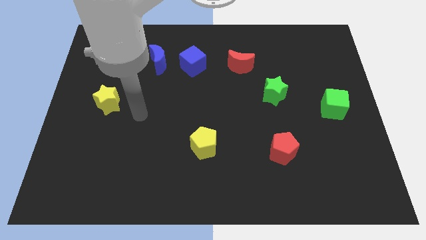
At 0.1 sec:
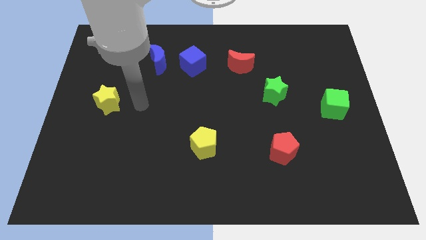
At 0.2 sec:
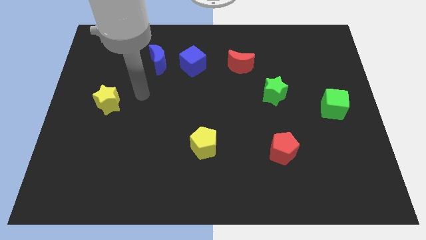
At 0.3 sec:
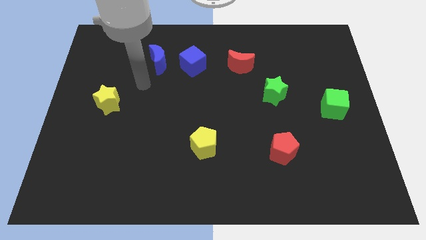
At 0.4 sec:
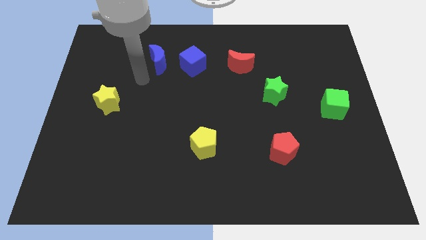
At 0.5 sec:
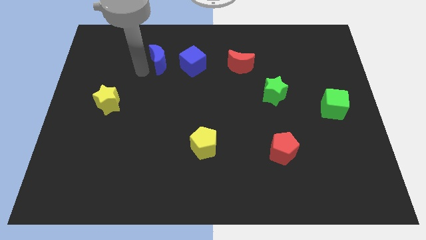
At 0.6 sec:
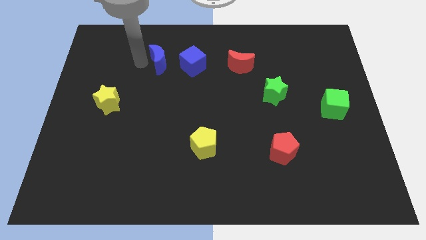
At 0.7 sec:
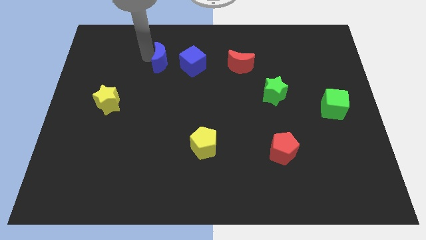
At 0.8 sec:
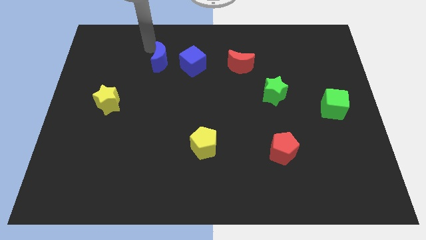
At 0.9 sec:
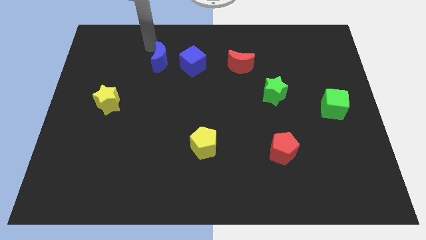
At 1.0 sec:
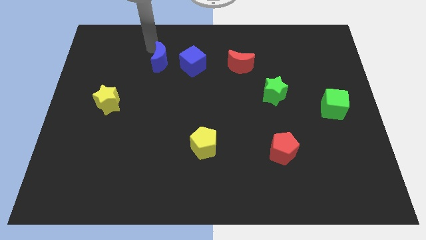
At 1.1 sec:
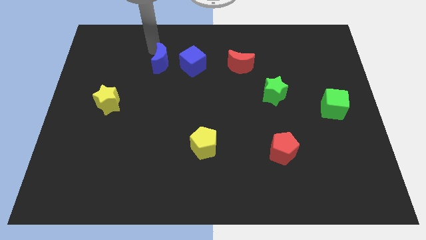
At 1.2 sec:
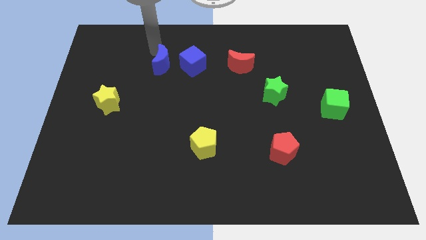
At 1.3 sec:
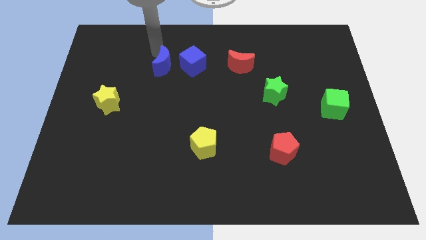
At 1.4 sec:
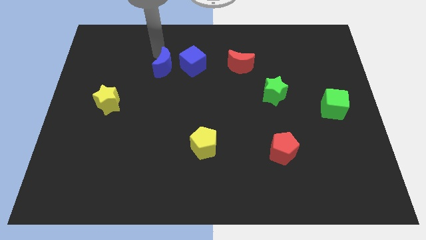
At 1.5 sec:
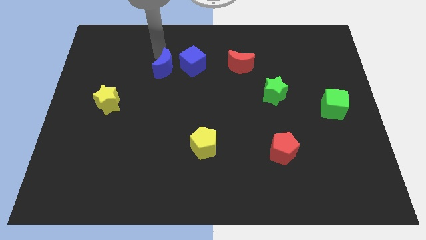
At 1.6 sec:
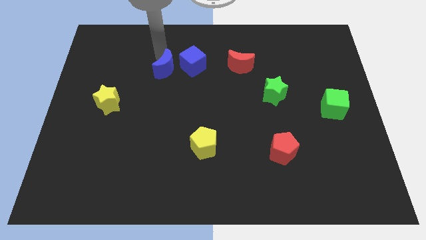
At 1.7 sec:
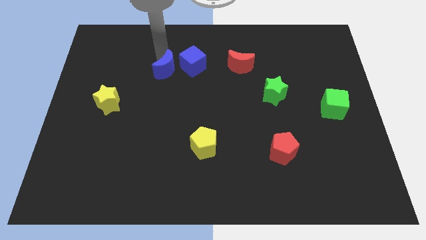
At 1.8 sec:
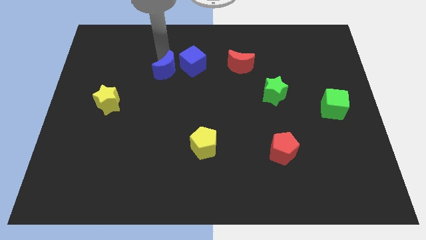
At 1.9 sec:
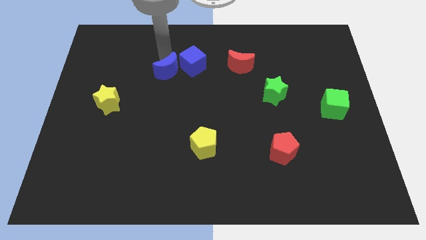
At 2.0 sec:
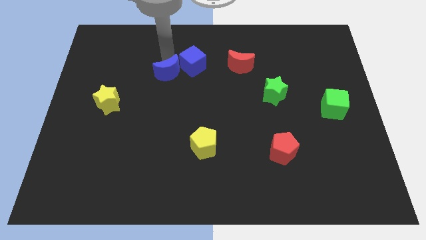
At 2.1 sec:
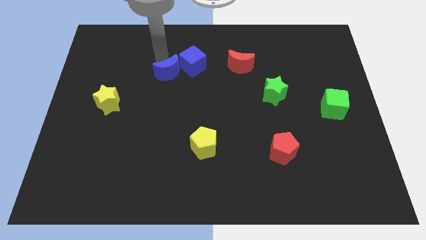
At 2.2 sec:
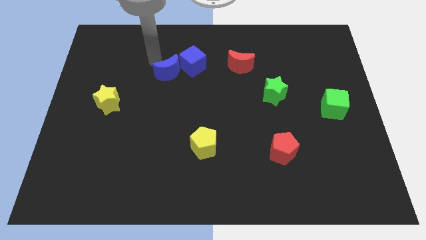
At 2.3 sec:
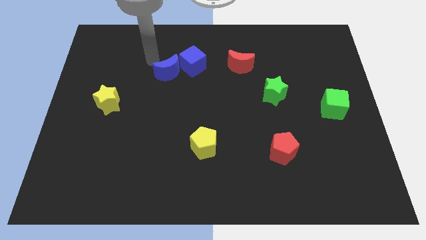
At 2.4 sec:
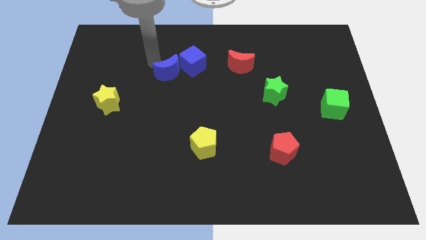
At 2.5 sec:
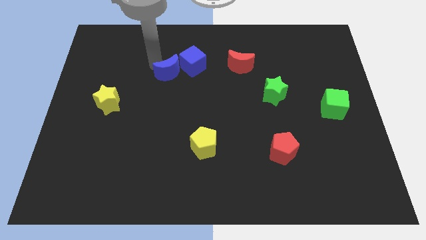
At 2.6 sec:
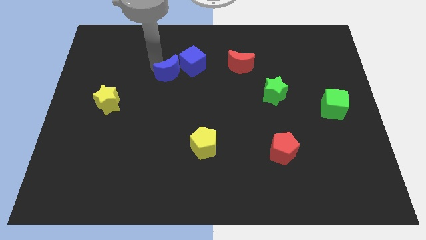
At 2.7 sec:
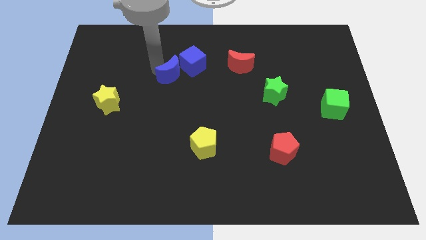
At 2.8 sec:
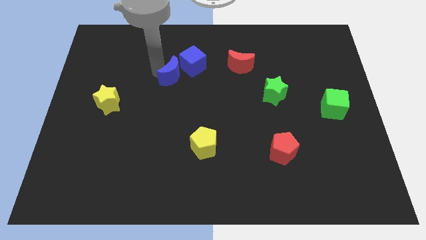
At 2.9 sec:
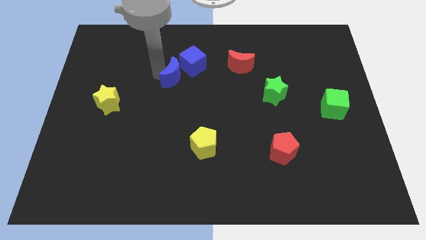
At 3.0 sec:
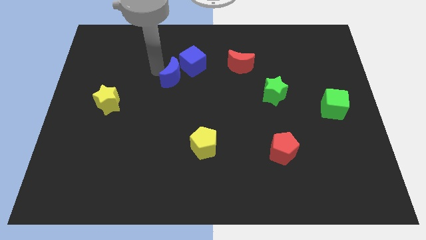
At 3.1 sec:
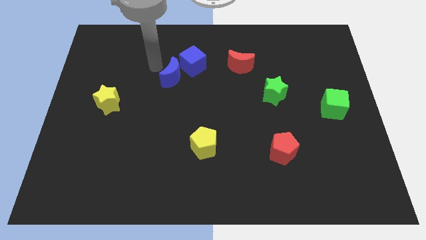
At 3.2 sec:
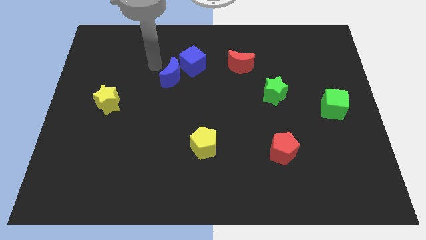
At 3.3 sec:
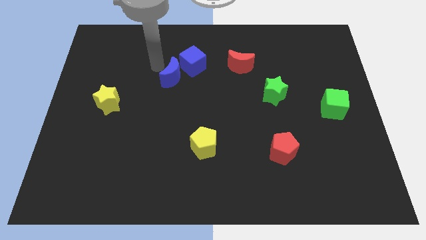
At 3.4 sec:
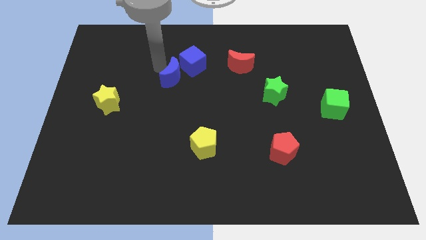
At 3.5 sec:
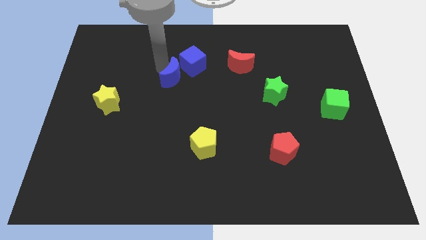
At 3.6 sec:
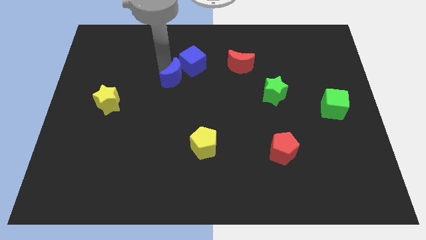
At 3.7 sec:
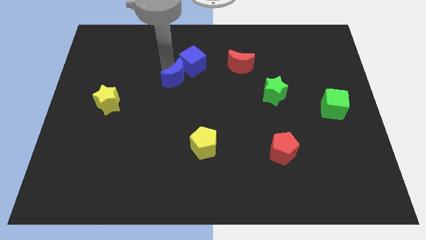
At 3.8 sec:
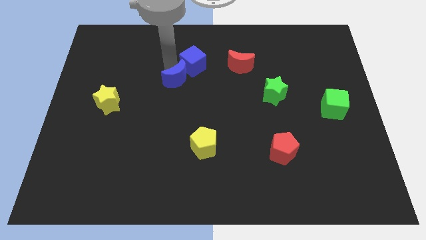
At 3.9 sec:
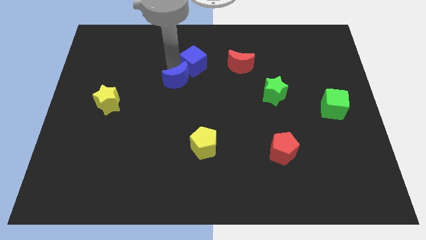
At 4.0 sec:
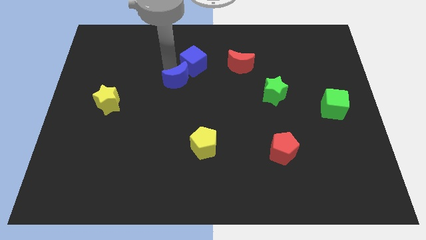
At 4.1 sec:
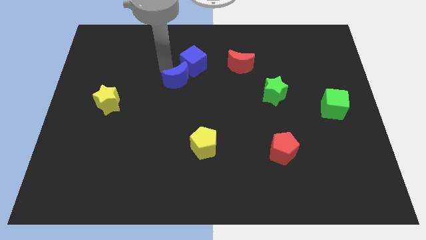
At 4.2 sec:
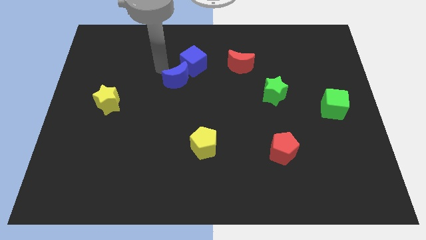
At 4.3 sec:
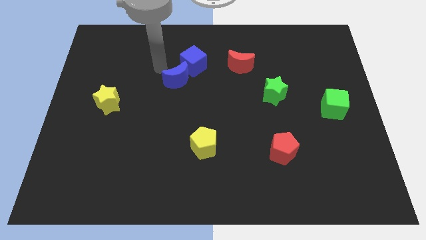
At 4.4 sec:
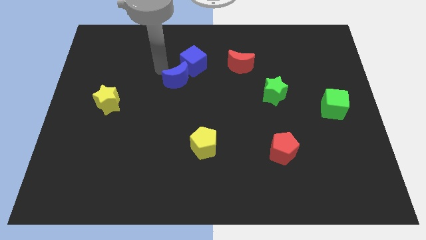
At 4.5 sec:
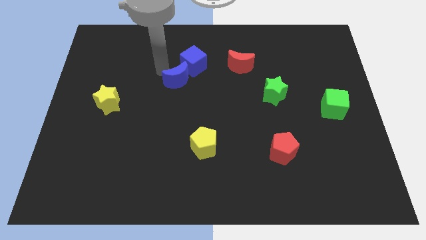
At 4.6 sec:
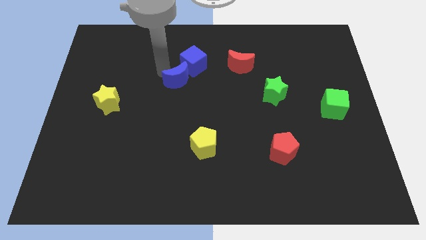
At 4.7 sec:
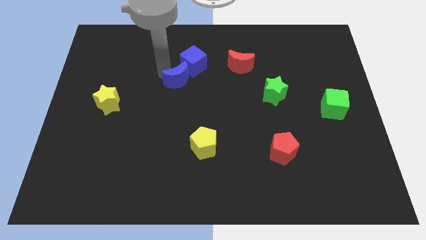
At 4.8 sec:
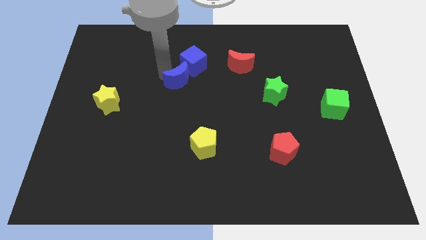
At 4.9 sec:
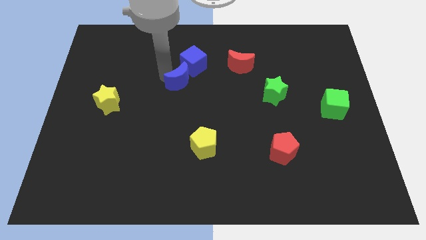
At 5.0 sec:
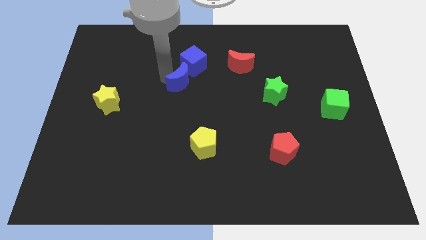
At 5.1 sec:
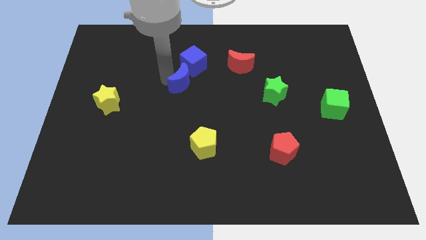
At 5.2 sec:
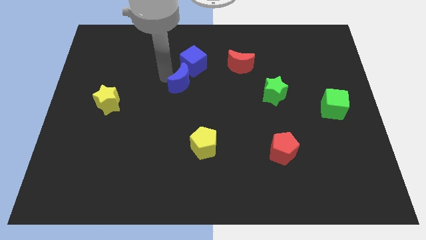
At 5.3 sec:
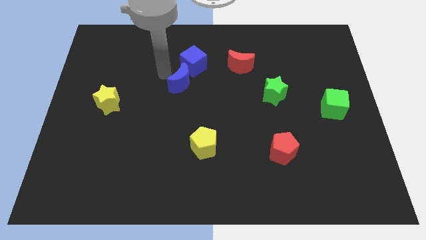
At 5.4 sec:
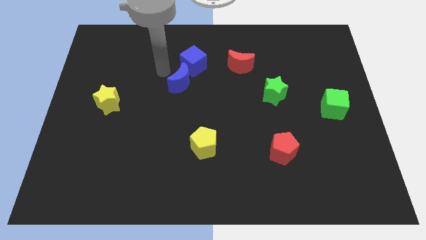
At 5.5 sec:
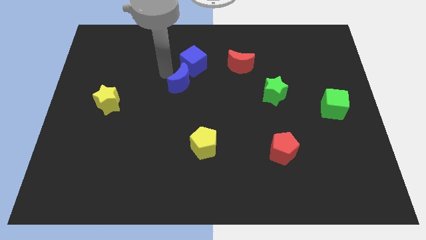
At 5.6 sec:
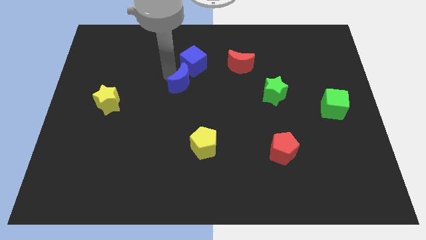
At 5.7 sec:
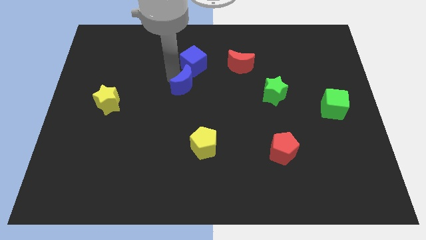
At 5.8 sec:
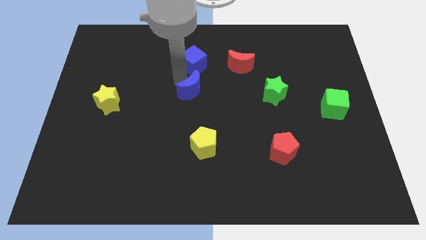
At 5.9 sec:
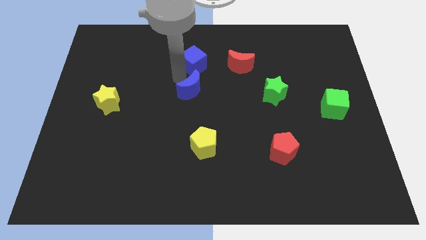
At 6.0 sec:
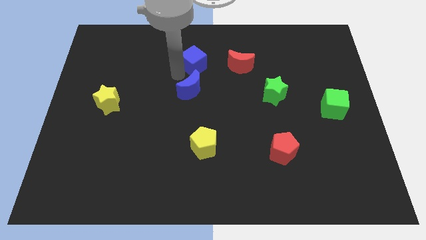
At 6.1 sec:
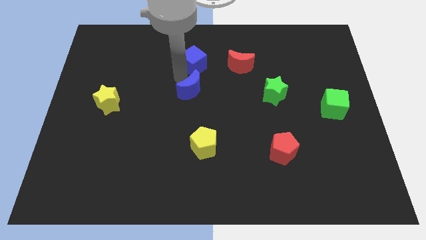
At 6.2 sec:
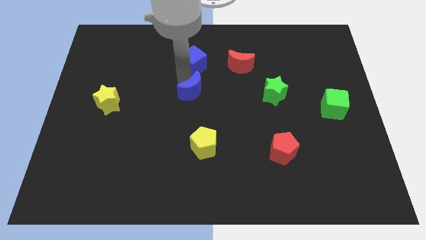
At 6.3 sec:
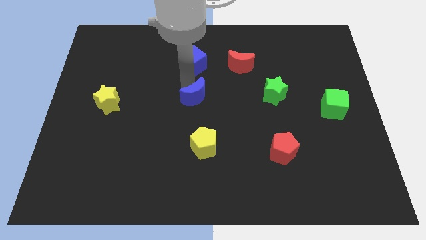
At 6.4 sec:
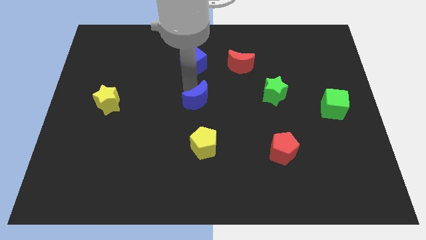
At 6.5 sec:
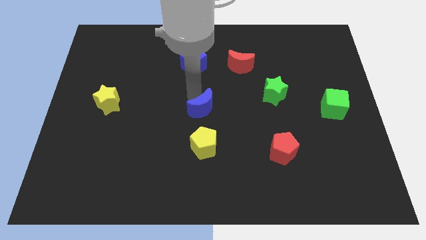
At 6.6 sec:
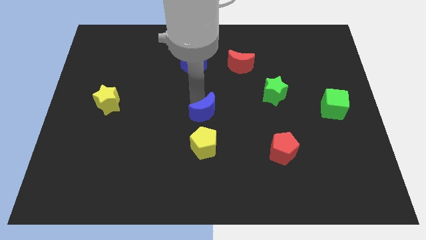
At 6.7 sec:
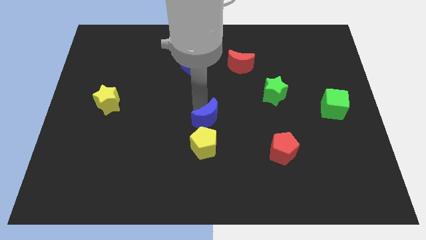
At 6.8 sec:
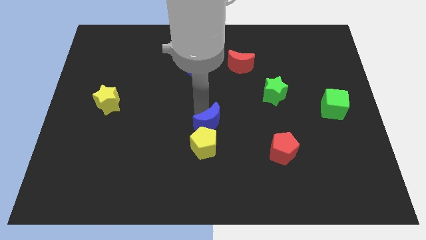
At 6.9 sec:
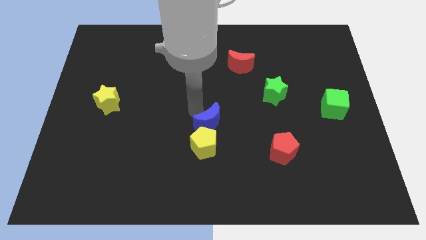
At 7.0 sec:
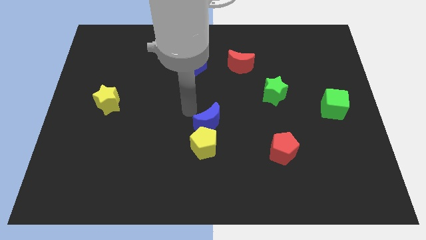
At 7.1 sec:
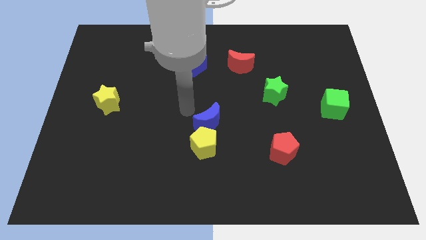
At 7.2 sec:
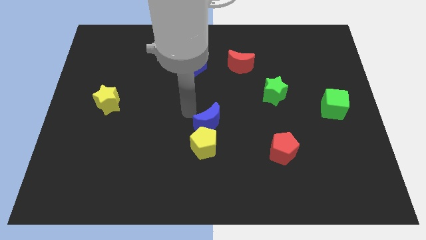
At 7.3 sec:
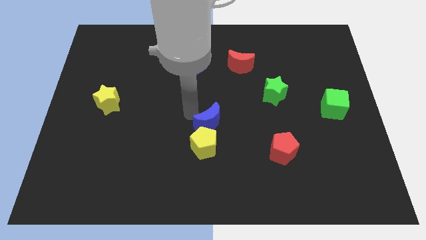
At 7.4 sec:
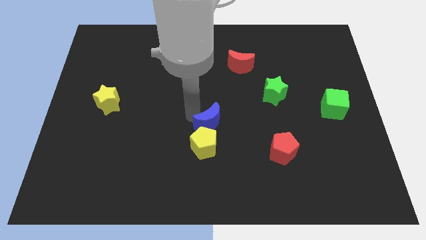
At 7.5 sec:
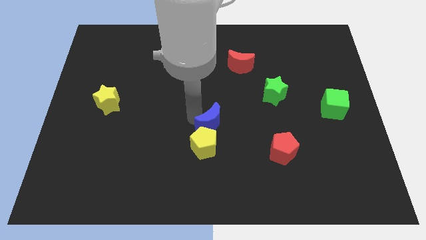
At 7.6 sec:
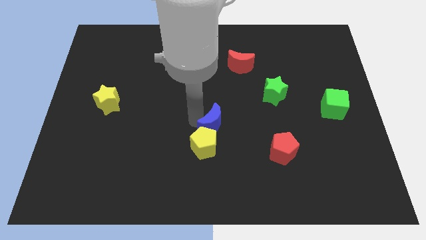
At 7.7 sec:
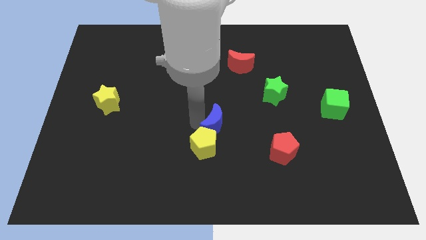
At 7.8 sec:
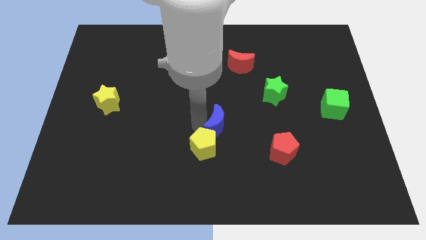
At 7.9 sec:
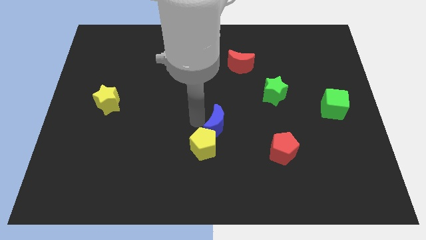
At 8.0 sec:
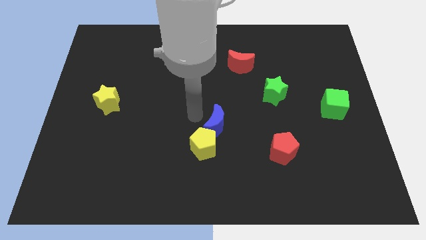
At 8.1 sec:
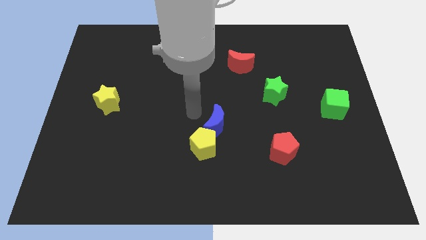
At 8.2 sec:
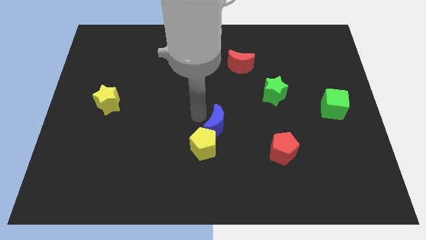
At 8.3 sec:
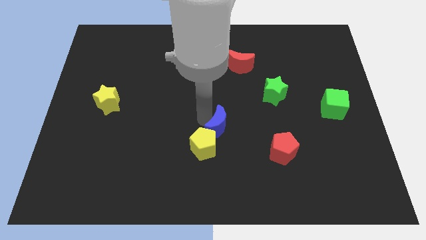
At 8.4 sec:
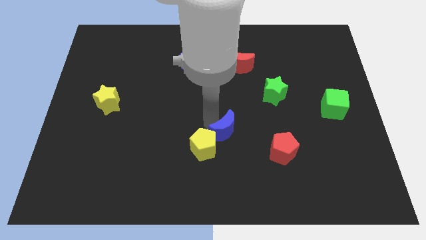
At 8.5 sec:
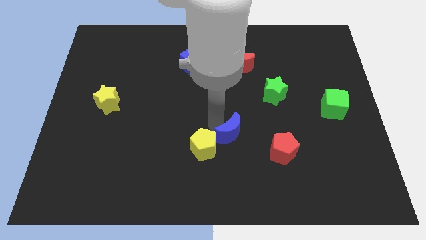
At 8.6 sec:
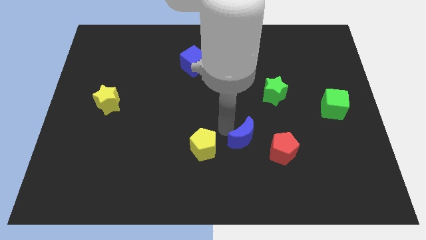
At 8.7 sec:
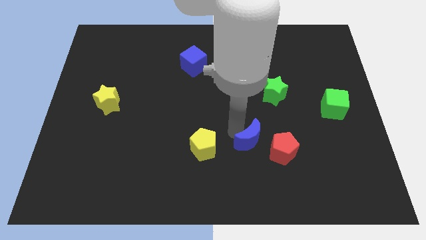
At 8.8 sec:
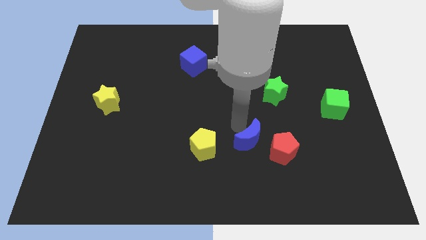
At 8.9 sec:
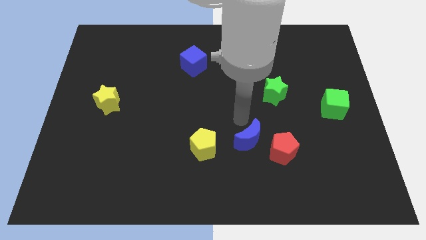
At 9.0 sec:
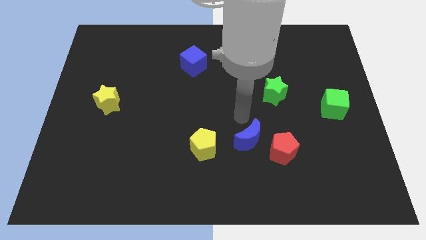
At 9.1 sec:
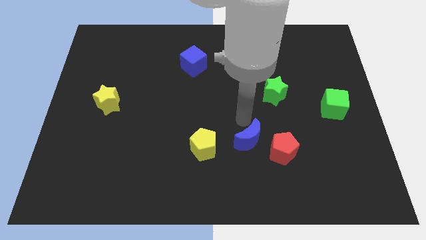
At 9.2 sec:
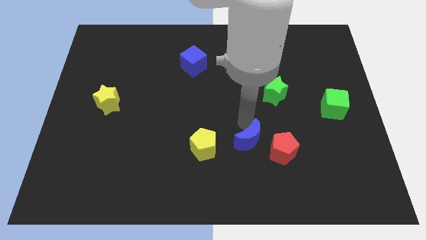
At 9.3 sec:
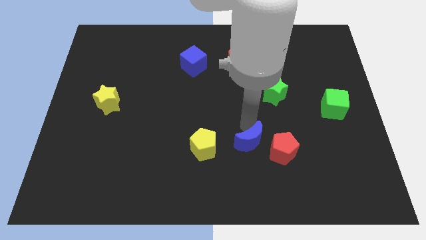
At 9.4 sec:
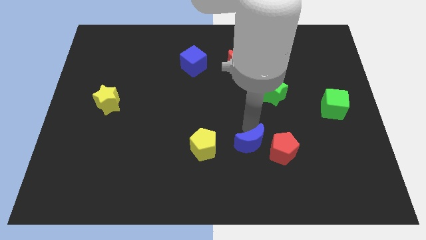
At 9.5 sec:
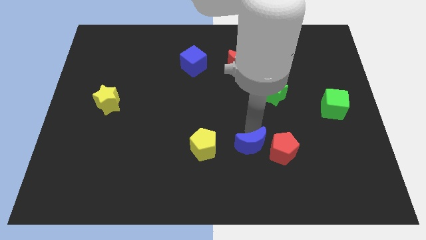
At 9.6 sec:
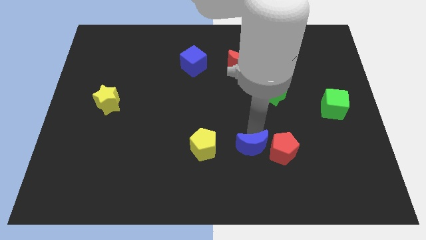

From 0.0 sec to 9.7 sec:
push the blue moon to the bottom left side of the red pentagon
